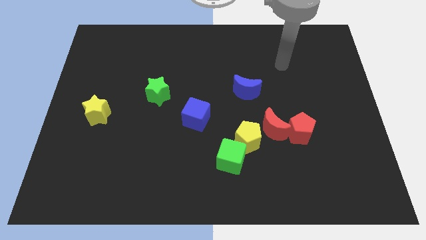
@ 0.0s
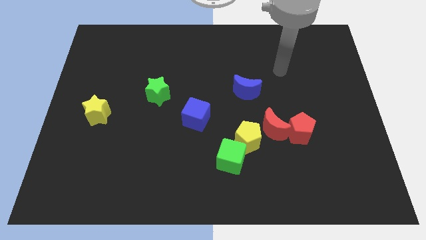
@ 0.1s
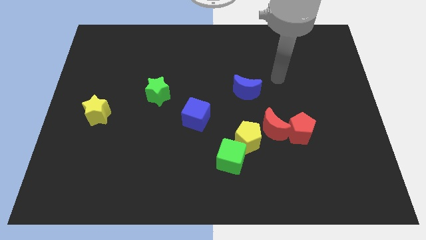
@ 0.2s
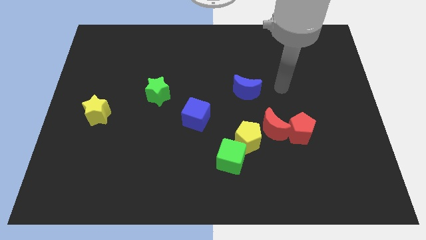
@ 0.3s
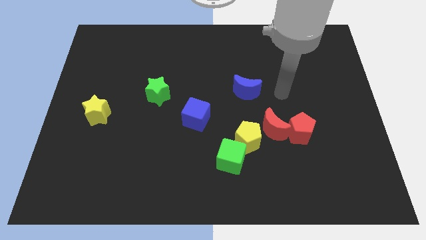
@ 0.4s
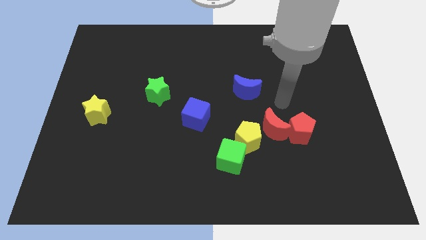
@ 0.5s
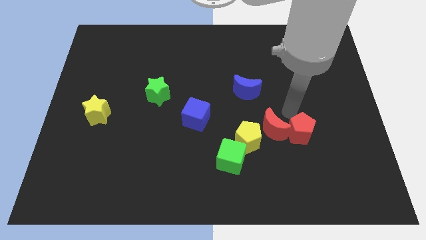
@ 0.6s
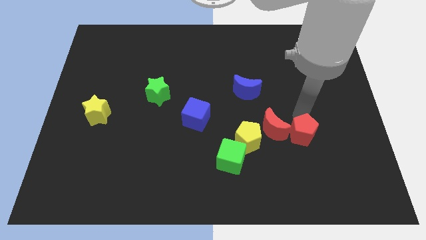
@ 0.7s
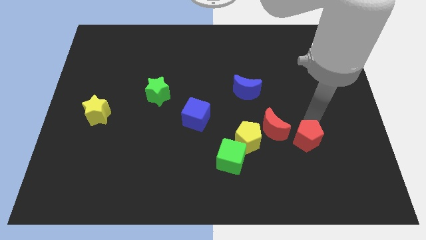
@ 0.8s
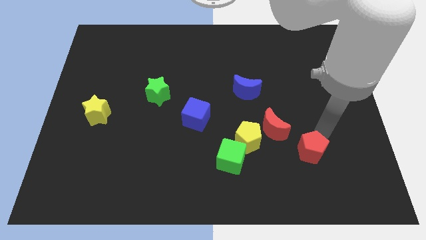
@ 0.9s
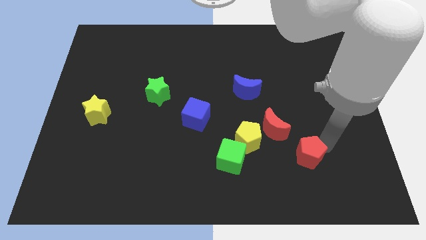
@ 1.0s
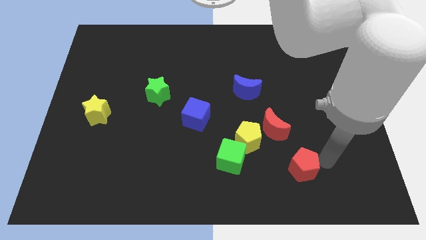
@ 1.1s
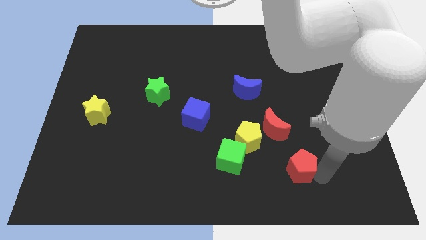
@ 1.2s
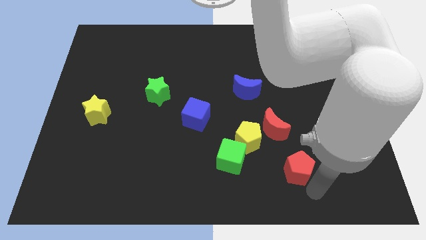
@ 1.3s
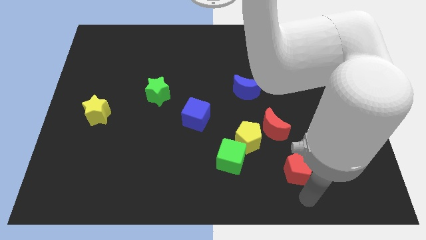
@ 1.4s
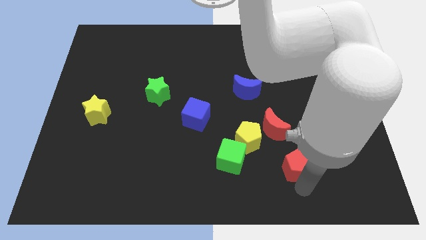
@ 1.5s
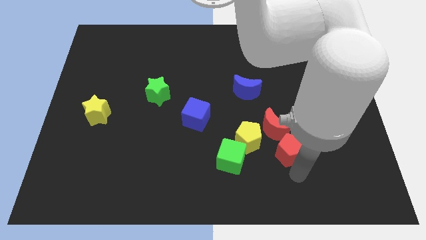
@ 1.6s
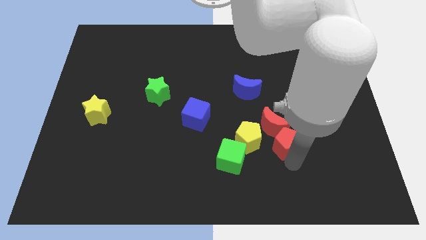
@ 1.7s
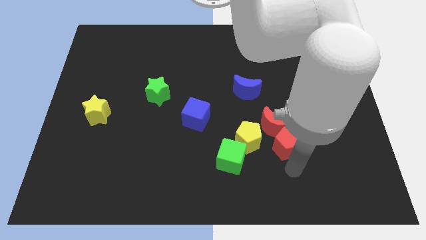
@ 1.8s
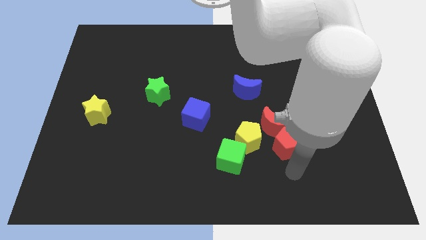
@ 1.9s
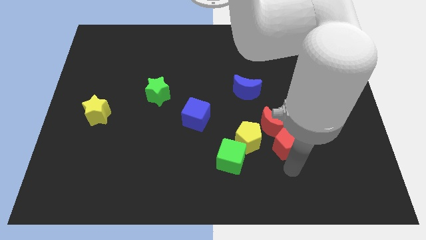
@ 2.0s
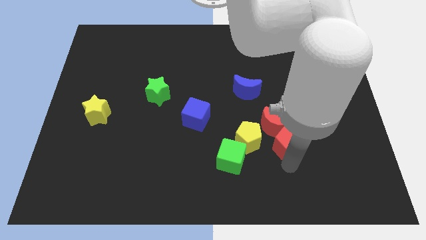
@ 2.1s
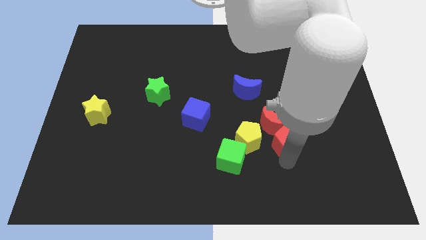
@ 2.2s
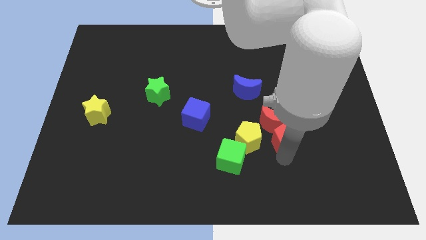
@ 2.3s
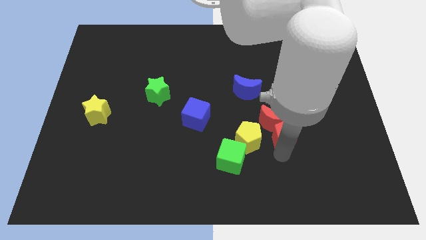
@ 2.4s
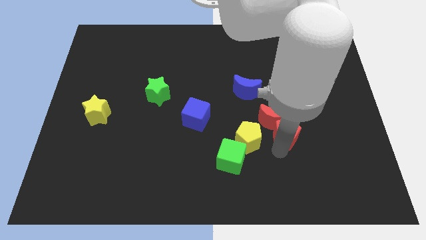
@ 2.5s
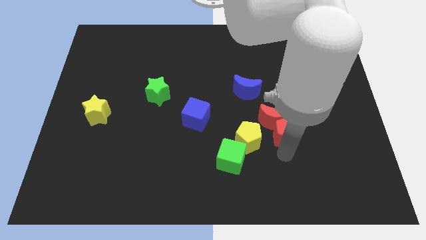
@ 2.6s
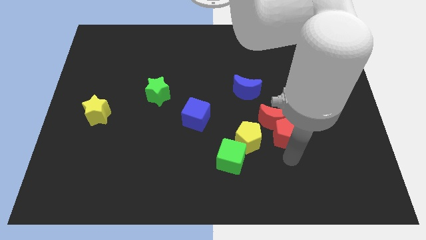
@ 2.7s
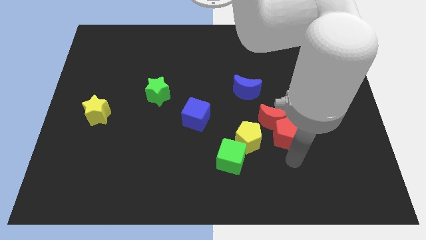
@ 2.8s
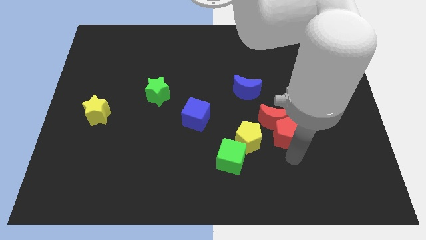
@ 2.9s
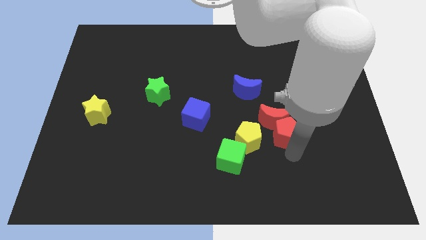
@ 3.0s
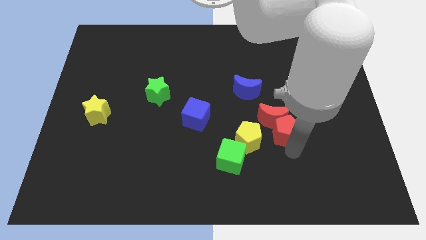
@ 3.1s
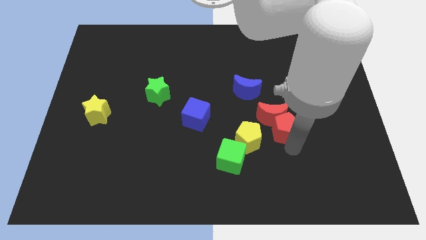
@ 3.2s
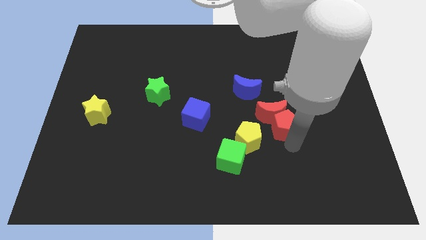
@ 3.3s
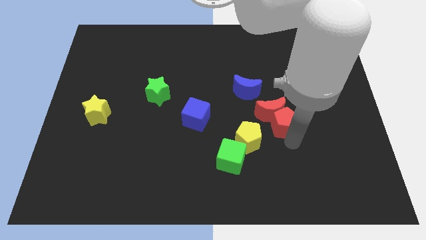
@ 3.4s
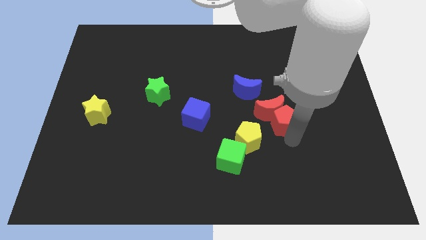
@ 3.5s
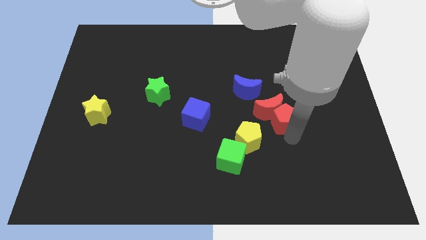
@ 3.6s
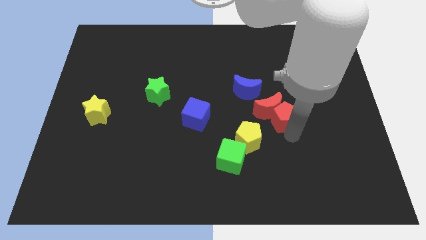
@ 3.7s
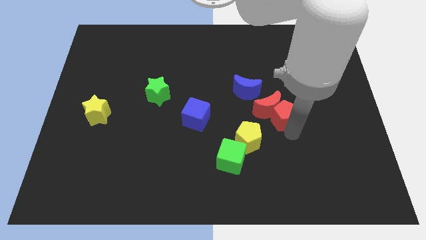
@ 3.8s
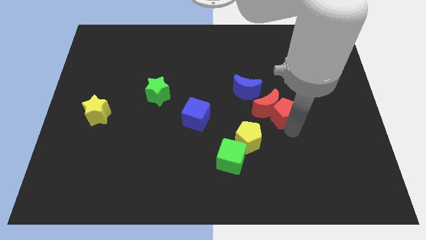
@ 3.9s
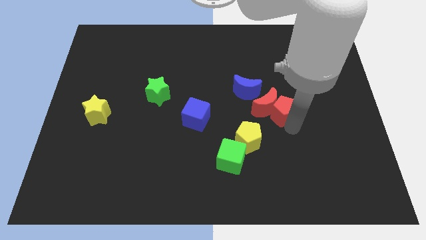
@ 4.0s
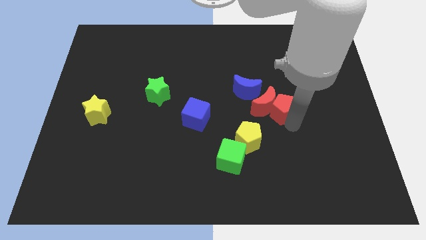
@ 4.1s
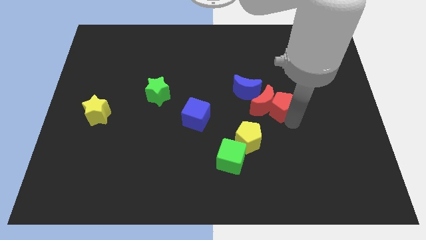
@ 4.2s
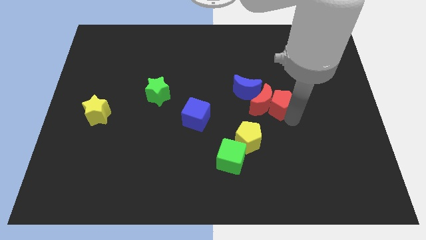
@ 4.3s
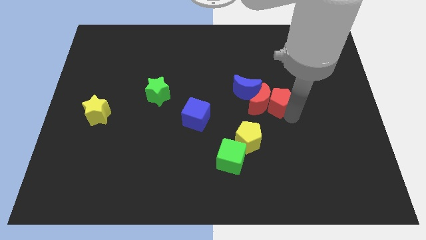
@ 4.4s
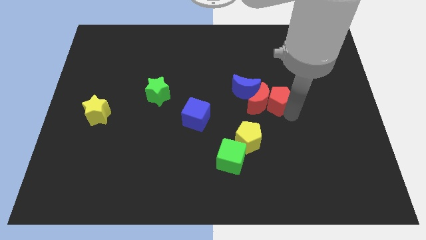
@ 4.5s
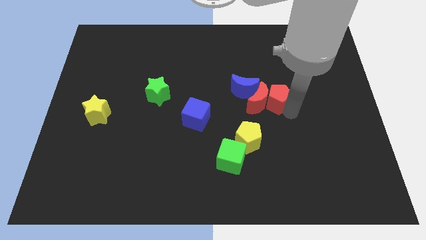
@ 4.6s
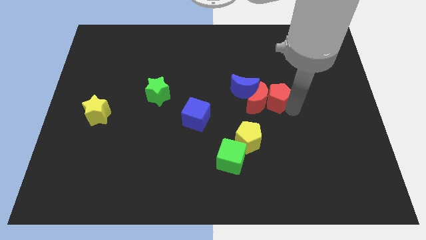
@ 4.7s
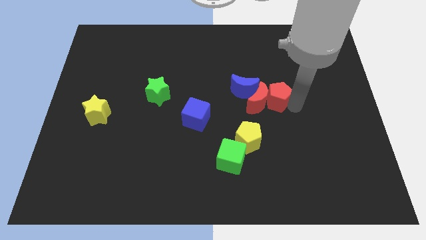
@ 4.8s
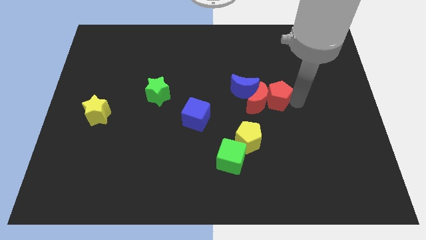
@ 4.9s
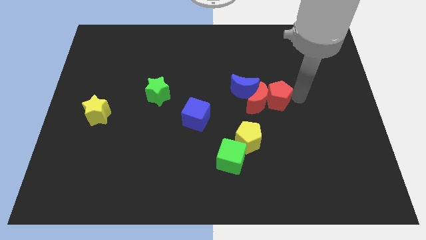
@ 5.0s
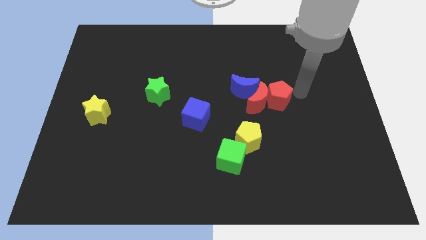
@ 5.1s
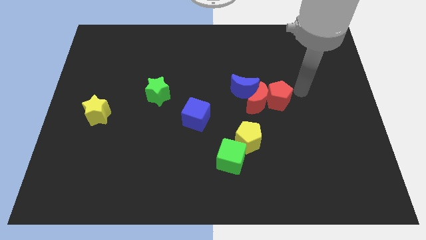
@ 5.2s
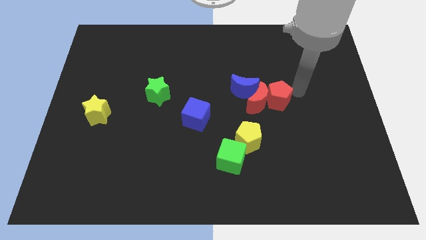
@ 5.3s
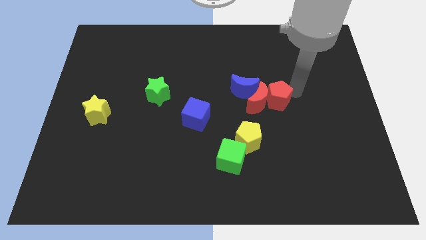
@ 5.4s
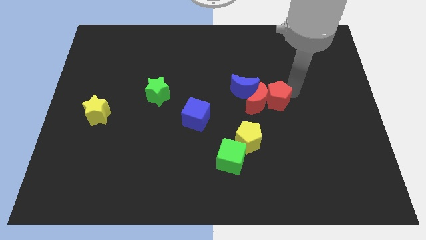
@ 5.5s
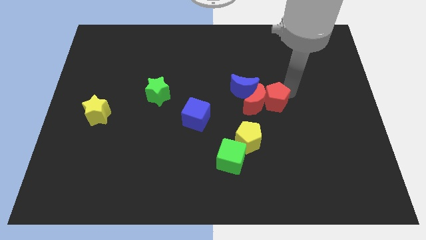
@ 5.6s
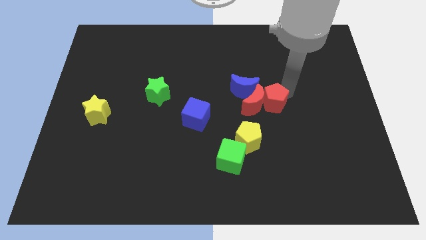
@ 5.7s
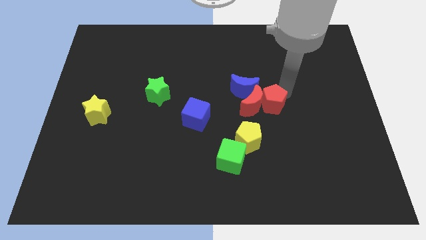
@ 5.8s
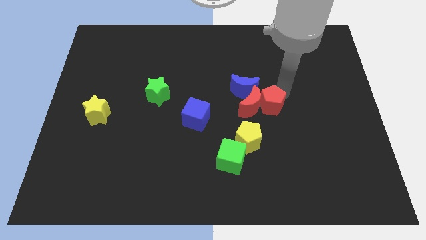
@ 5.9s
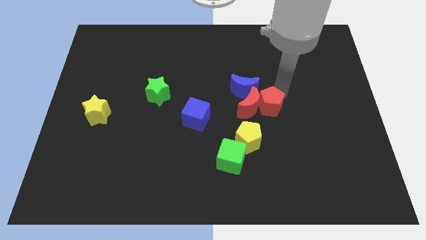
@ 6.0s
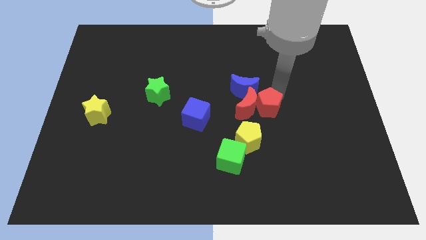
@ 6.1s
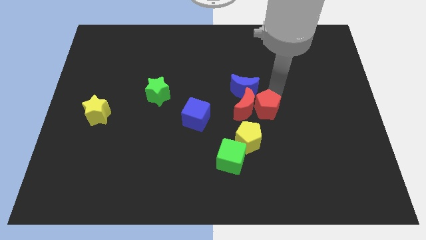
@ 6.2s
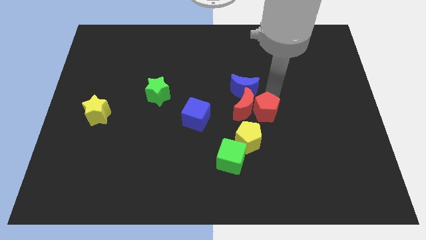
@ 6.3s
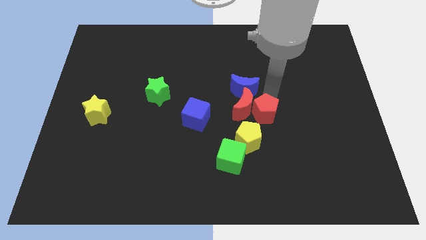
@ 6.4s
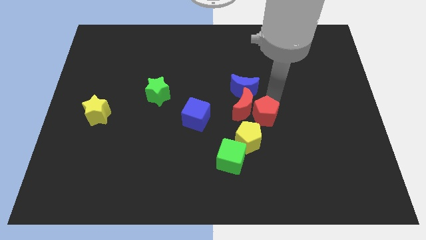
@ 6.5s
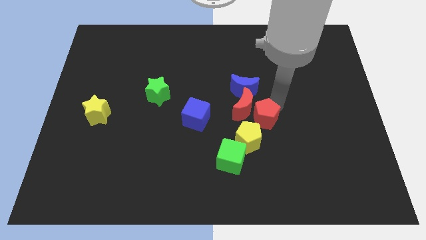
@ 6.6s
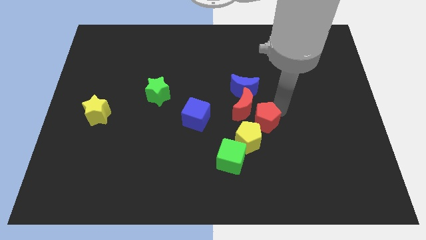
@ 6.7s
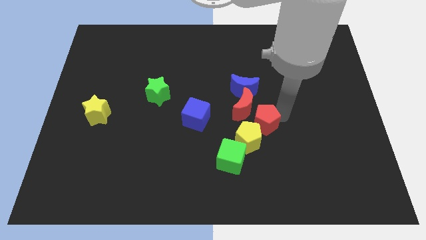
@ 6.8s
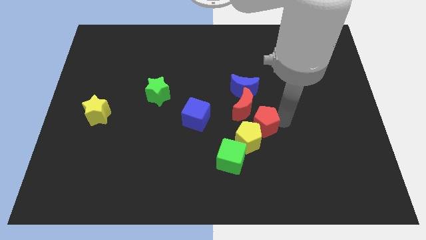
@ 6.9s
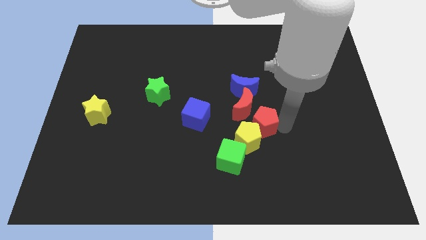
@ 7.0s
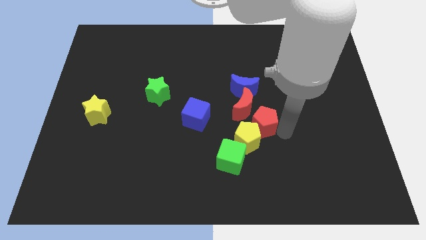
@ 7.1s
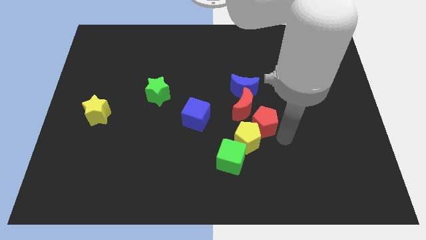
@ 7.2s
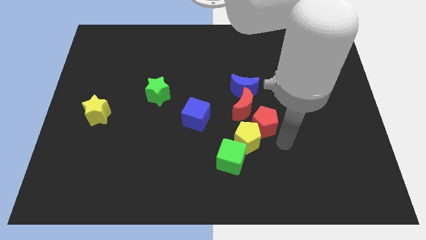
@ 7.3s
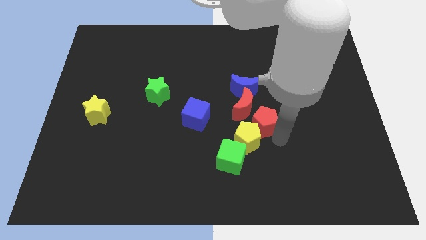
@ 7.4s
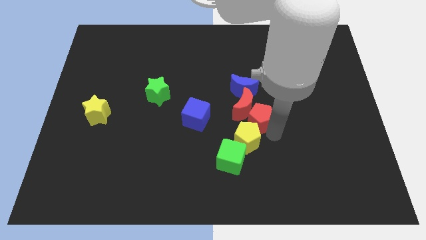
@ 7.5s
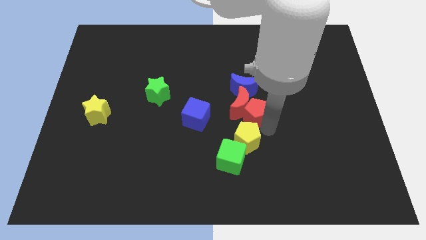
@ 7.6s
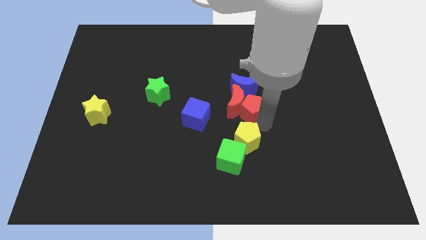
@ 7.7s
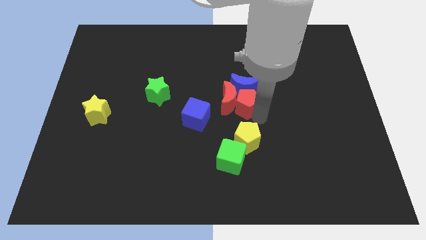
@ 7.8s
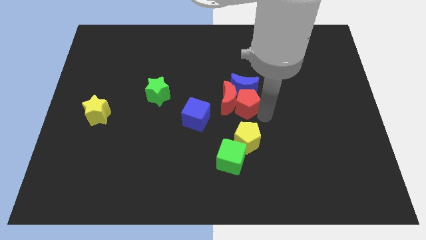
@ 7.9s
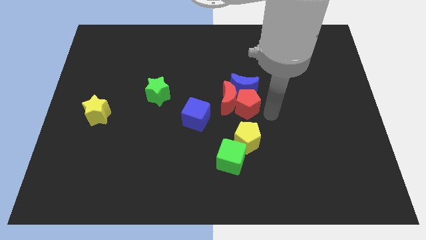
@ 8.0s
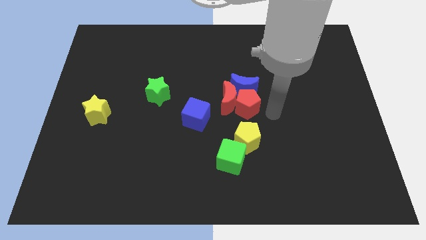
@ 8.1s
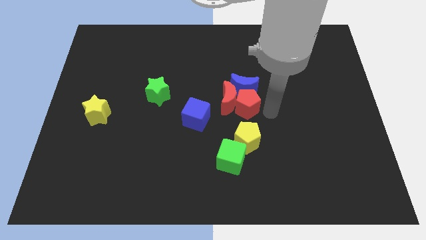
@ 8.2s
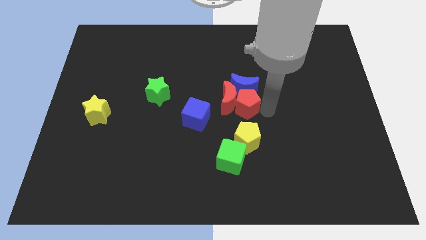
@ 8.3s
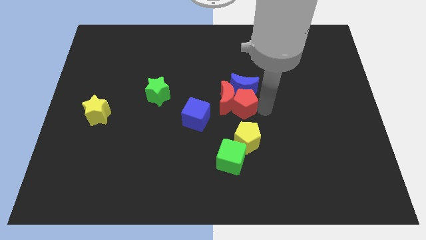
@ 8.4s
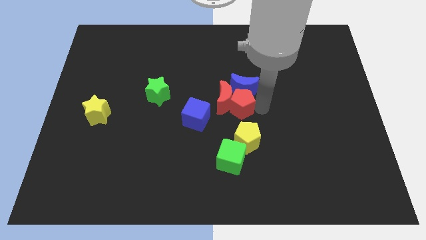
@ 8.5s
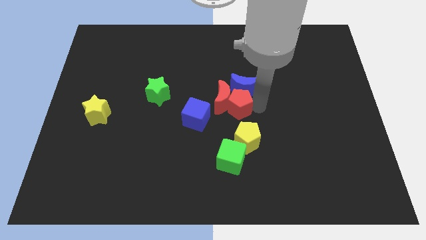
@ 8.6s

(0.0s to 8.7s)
push the red pentagon to the top right of the blue cube
